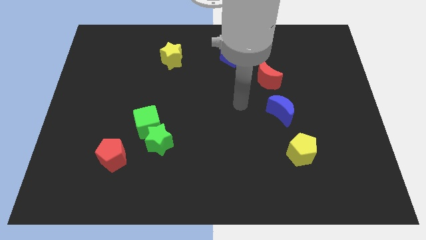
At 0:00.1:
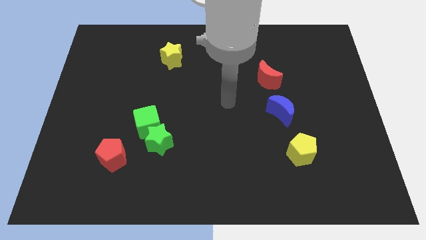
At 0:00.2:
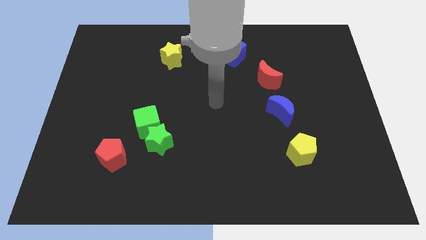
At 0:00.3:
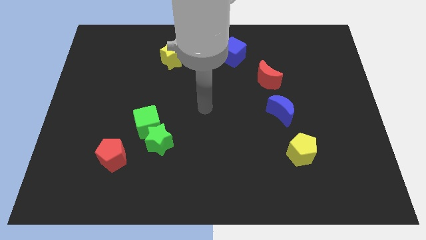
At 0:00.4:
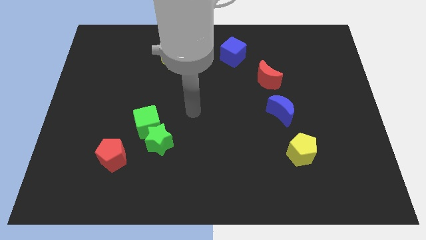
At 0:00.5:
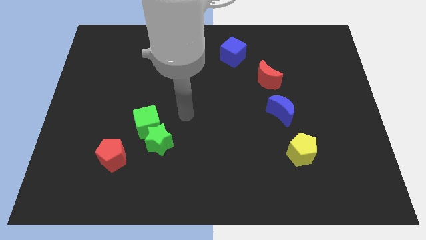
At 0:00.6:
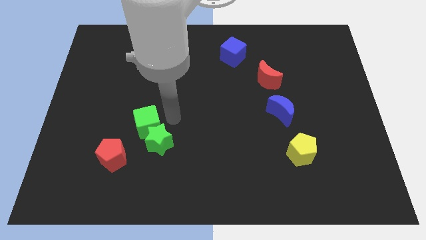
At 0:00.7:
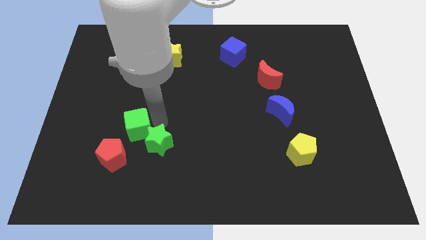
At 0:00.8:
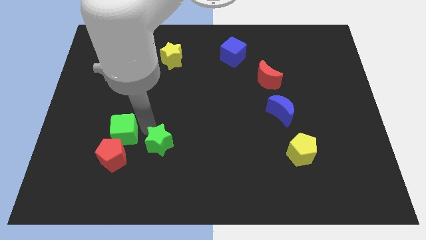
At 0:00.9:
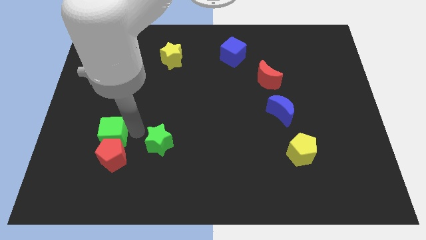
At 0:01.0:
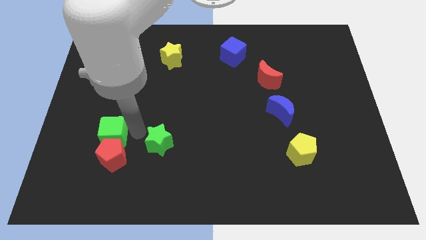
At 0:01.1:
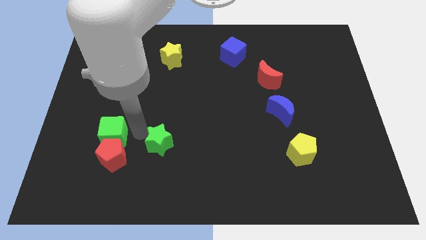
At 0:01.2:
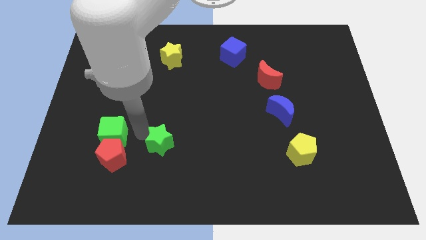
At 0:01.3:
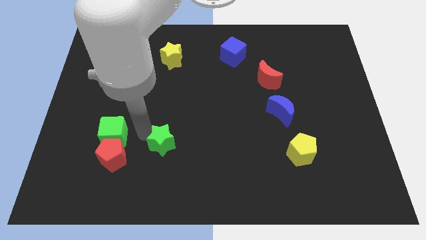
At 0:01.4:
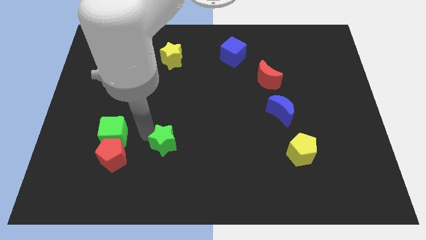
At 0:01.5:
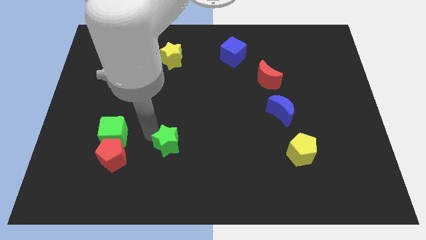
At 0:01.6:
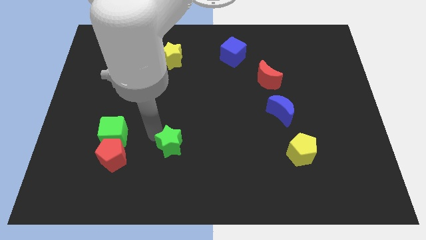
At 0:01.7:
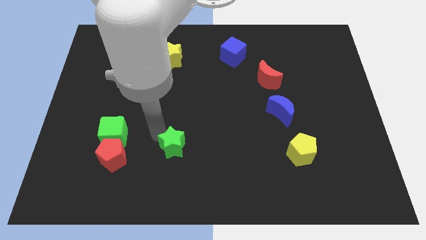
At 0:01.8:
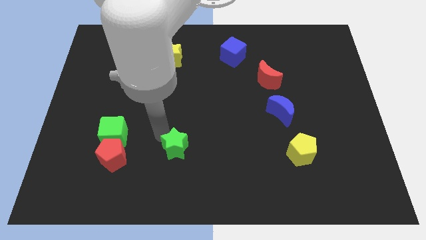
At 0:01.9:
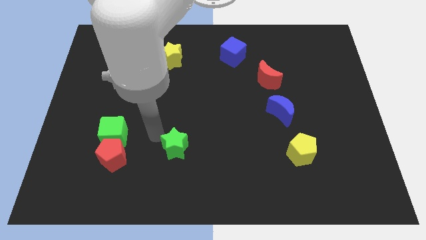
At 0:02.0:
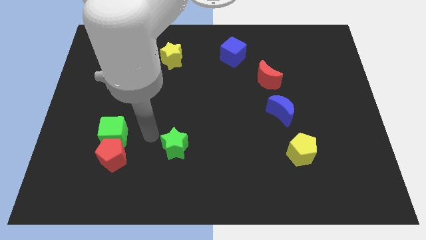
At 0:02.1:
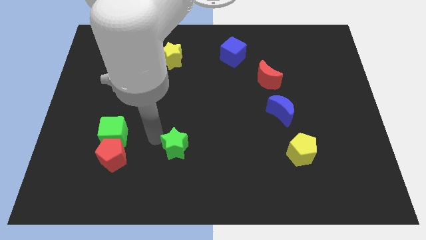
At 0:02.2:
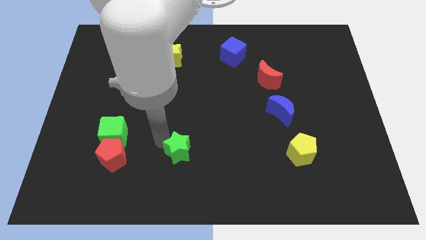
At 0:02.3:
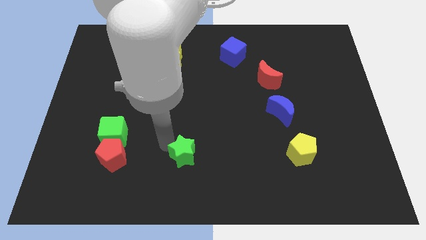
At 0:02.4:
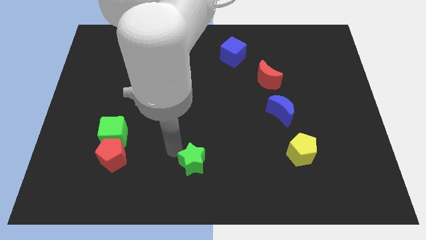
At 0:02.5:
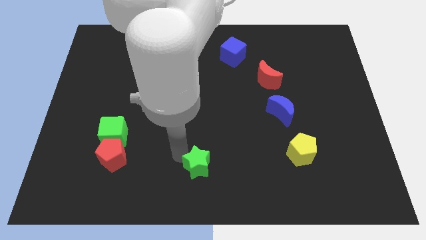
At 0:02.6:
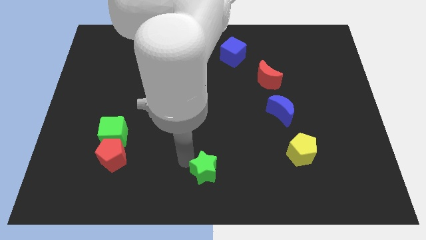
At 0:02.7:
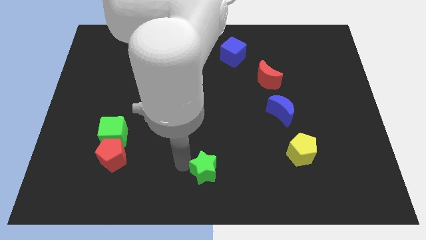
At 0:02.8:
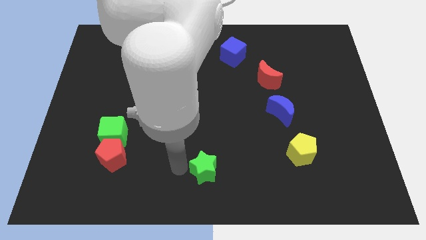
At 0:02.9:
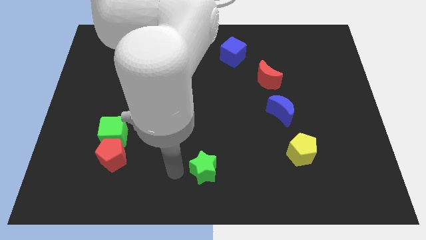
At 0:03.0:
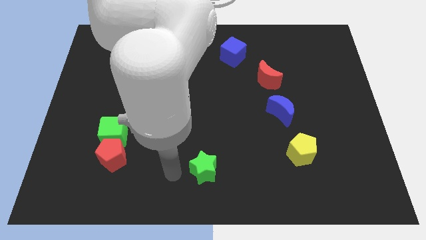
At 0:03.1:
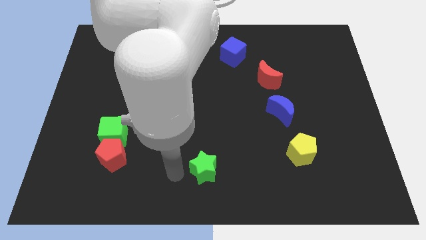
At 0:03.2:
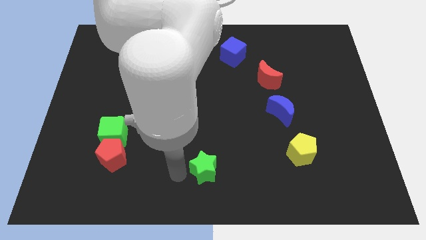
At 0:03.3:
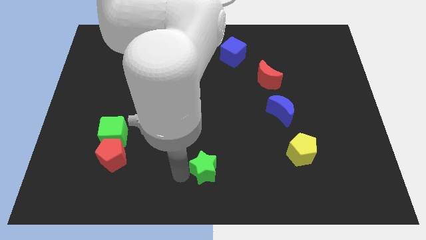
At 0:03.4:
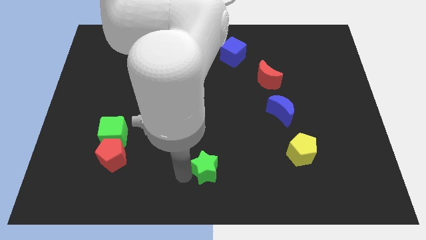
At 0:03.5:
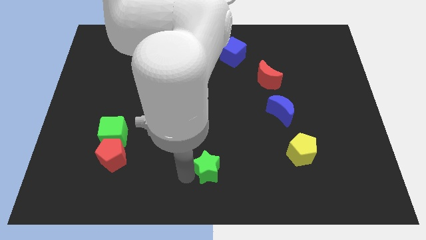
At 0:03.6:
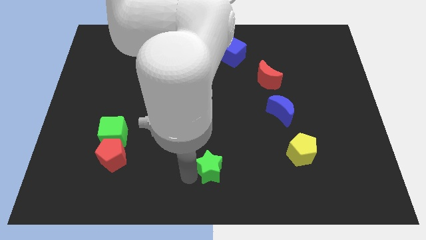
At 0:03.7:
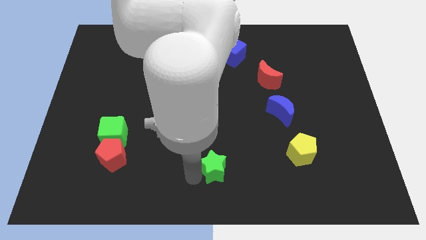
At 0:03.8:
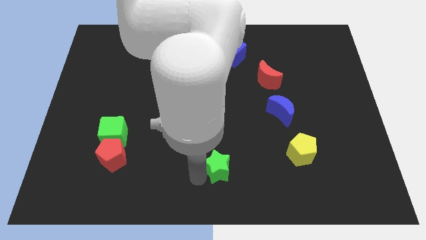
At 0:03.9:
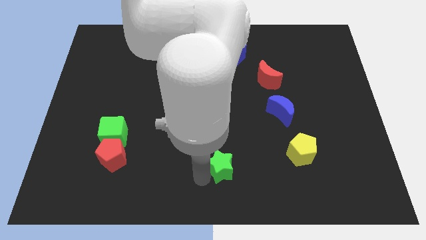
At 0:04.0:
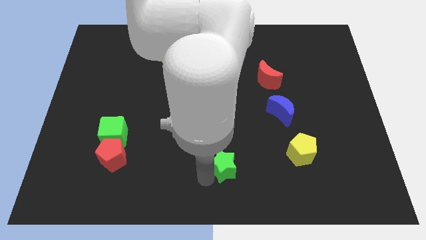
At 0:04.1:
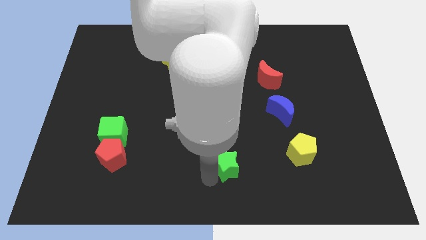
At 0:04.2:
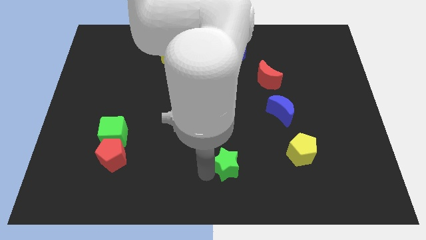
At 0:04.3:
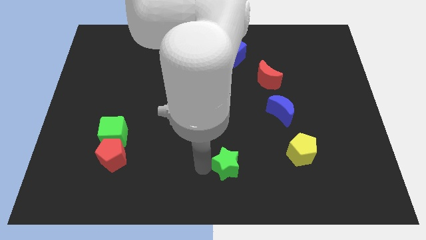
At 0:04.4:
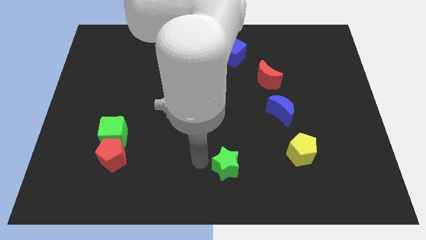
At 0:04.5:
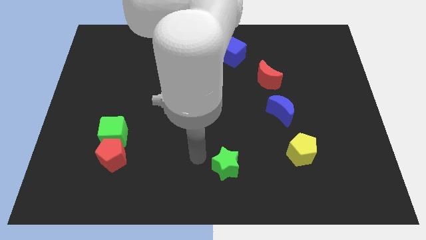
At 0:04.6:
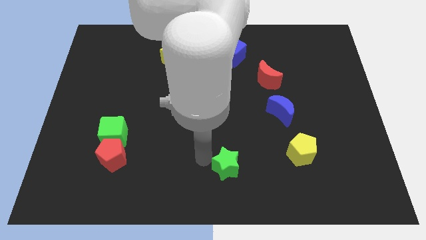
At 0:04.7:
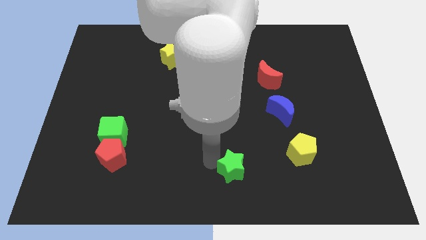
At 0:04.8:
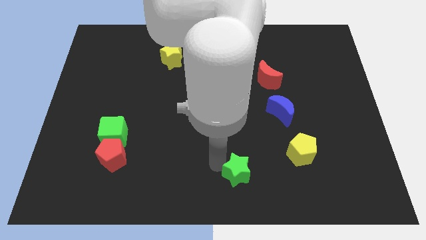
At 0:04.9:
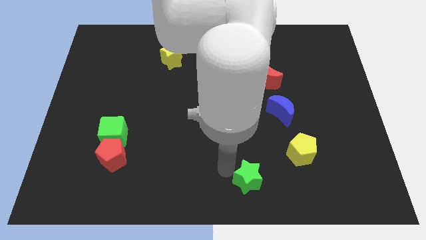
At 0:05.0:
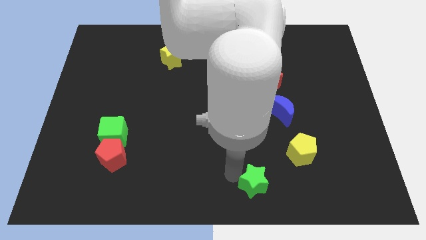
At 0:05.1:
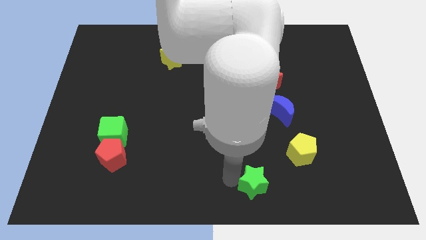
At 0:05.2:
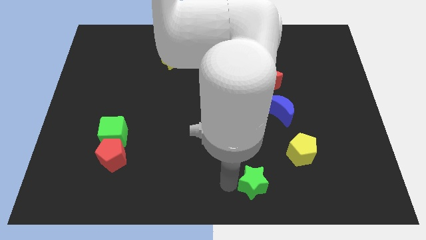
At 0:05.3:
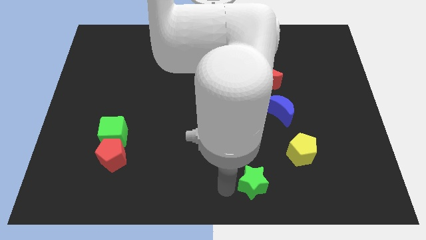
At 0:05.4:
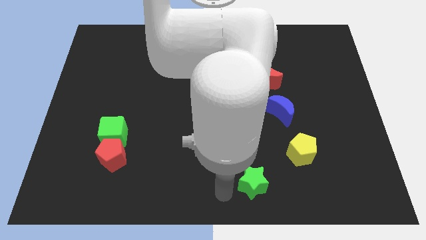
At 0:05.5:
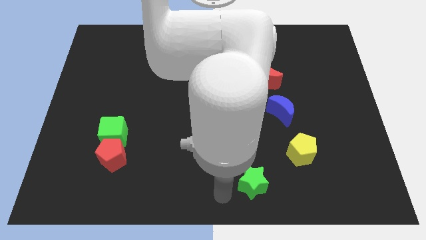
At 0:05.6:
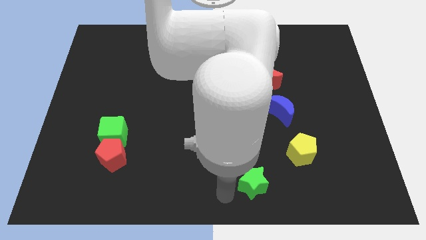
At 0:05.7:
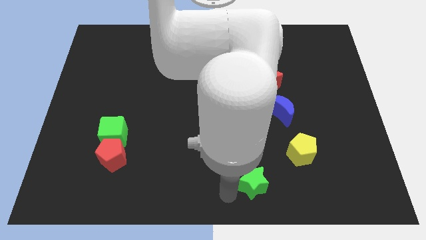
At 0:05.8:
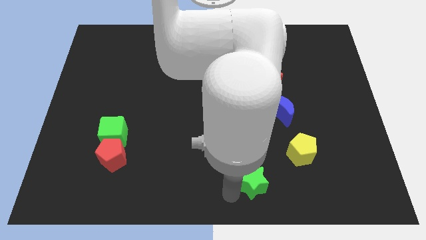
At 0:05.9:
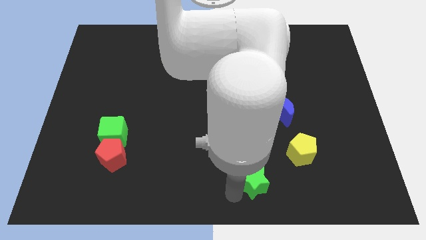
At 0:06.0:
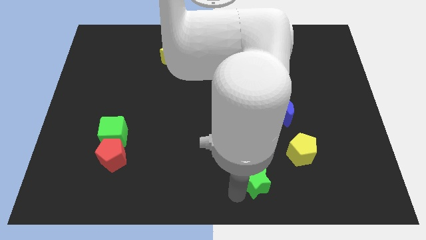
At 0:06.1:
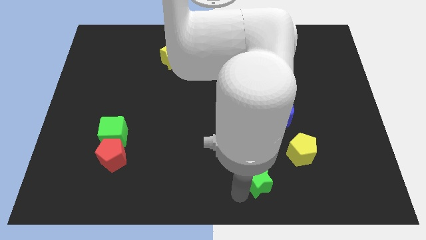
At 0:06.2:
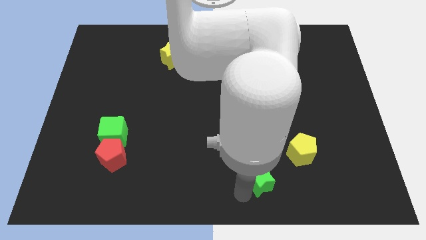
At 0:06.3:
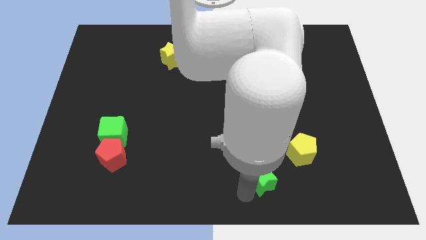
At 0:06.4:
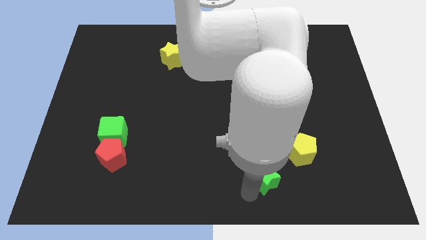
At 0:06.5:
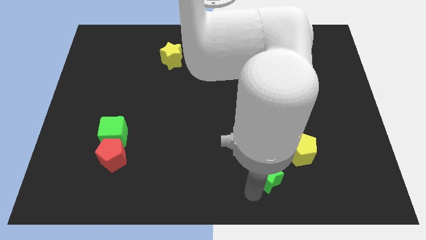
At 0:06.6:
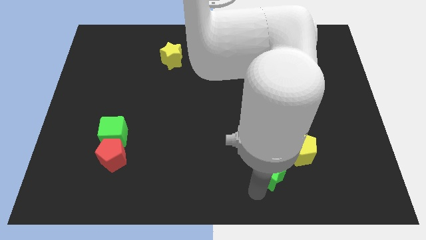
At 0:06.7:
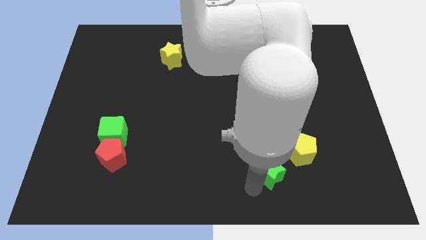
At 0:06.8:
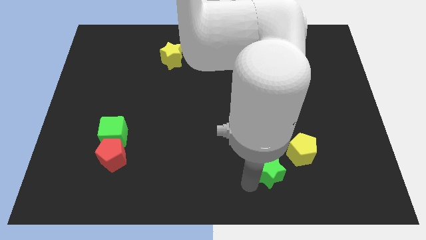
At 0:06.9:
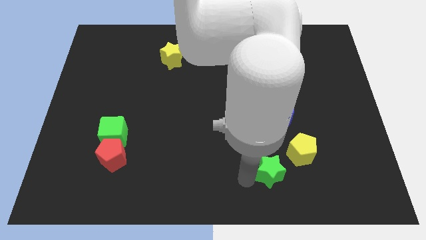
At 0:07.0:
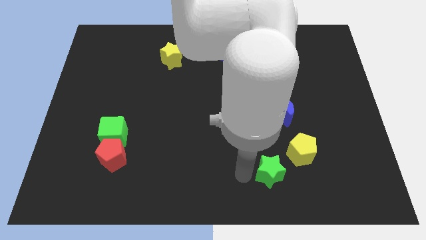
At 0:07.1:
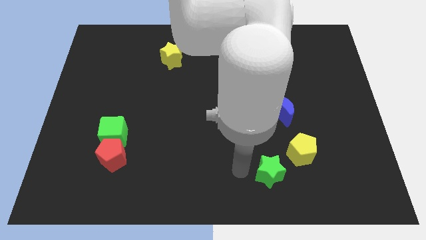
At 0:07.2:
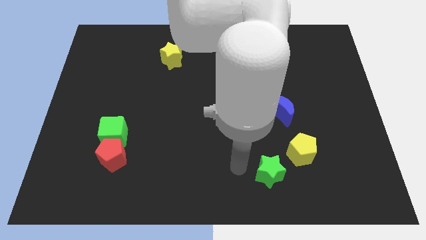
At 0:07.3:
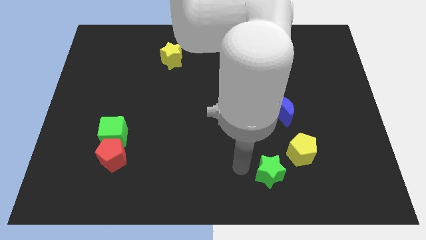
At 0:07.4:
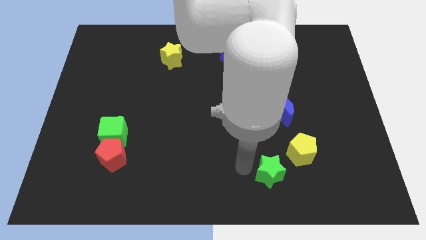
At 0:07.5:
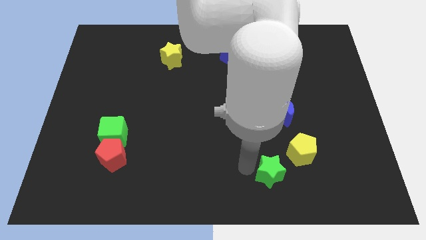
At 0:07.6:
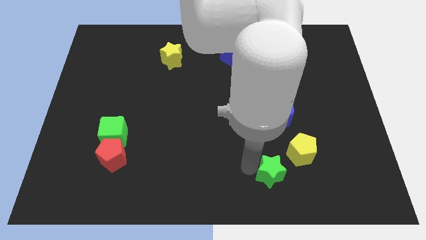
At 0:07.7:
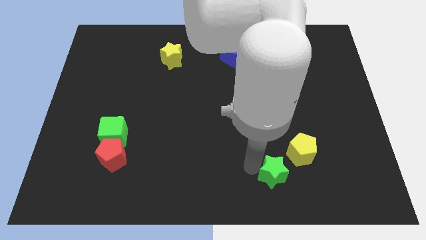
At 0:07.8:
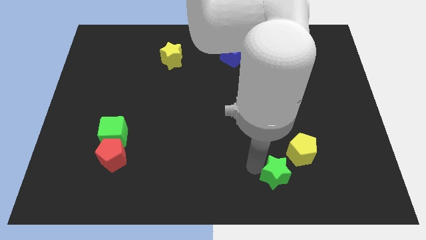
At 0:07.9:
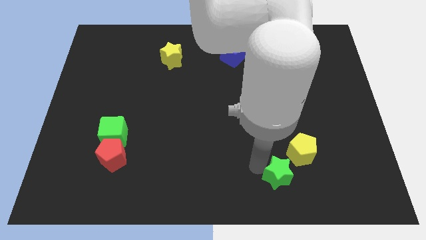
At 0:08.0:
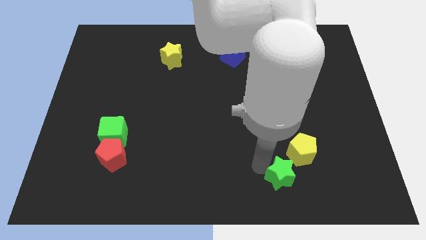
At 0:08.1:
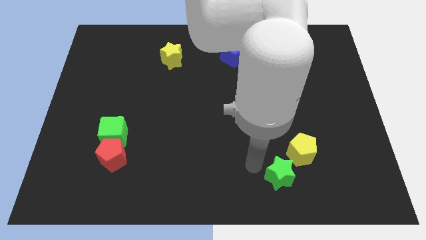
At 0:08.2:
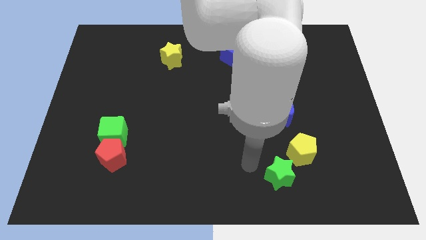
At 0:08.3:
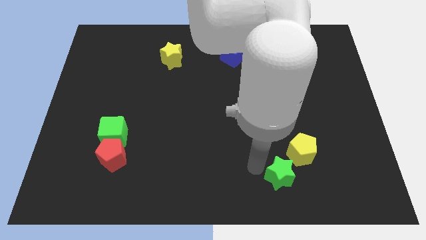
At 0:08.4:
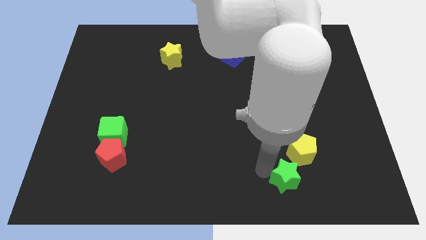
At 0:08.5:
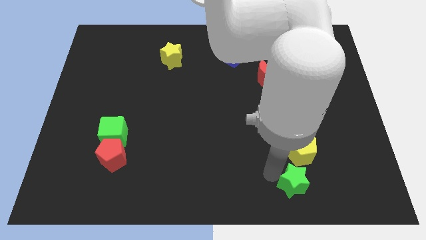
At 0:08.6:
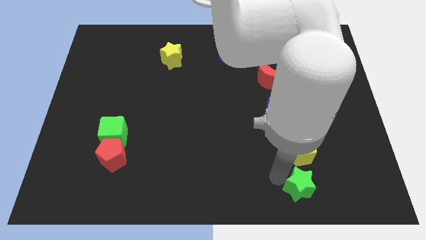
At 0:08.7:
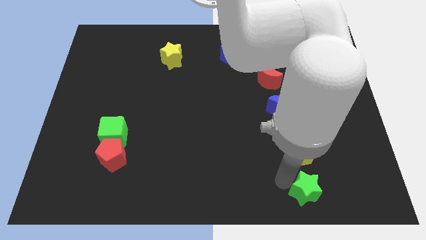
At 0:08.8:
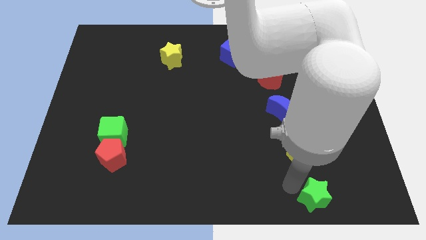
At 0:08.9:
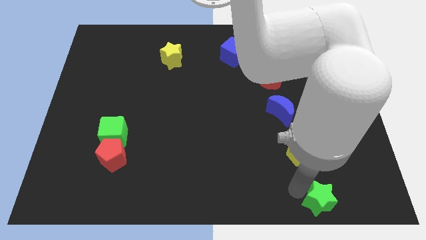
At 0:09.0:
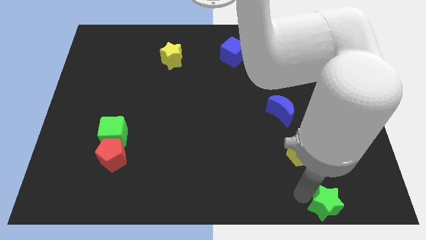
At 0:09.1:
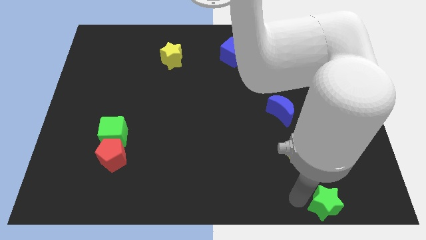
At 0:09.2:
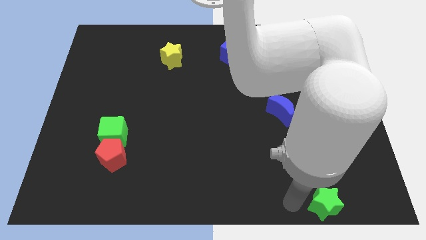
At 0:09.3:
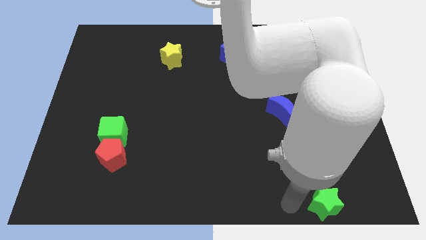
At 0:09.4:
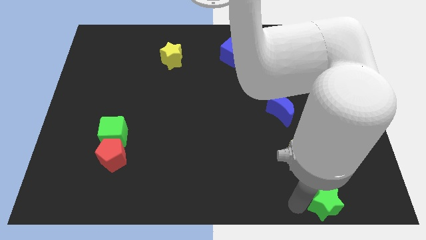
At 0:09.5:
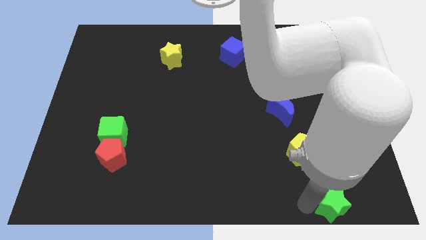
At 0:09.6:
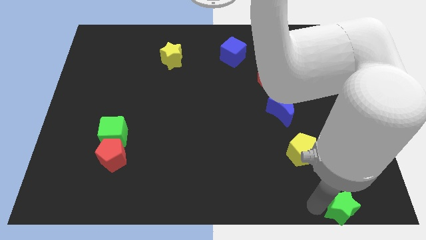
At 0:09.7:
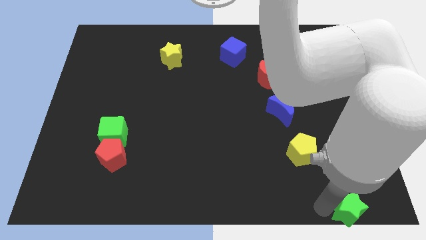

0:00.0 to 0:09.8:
push the green star to the bottom right of the board
